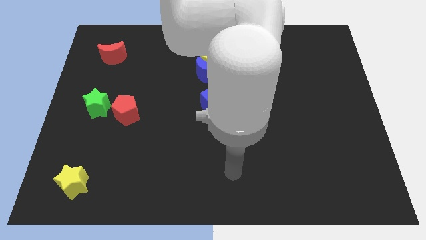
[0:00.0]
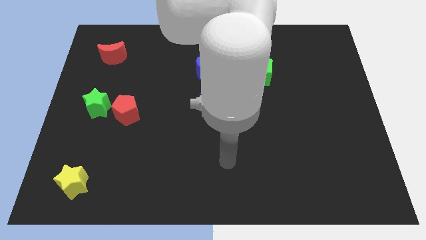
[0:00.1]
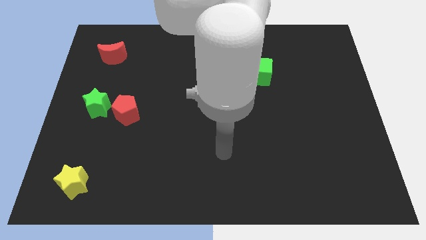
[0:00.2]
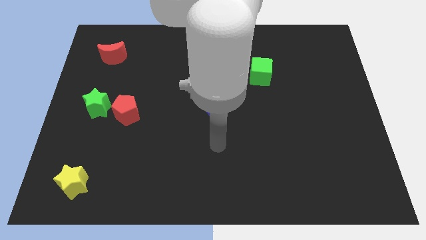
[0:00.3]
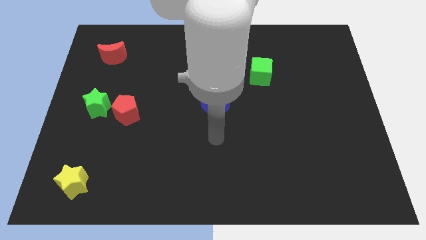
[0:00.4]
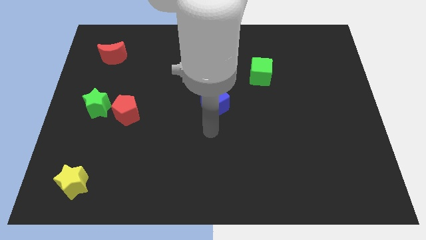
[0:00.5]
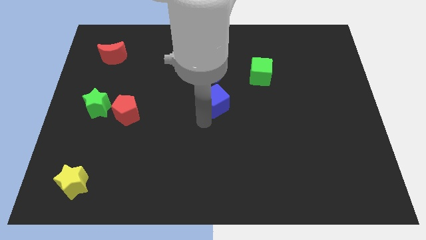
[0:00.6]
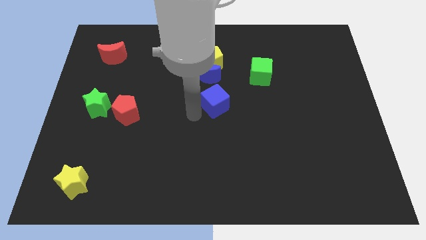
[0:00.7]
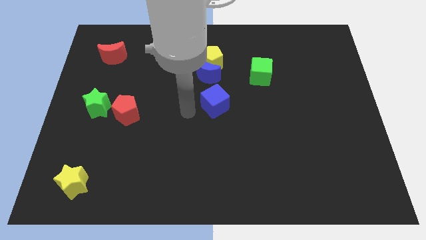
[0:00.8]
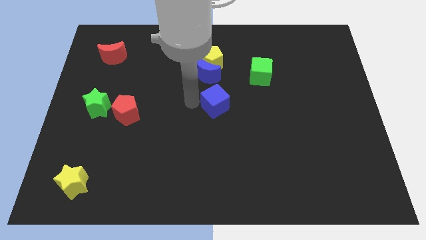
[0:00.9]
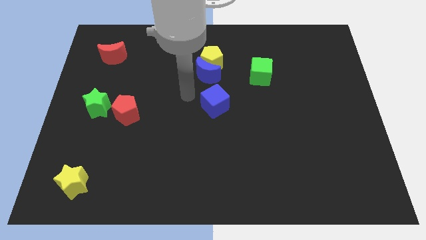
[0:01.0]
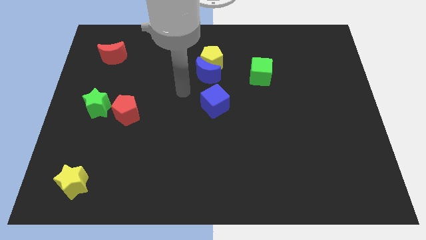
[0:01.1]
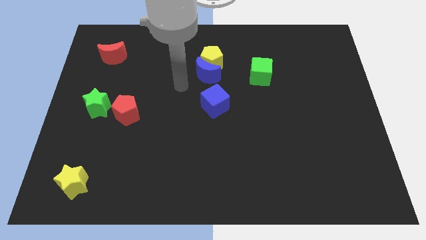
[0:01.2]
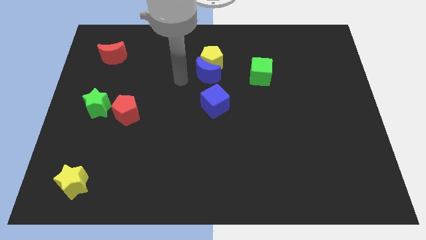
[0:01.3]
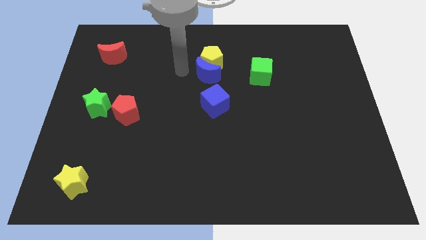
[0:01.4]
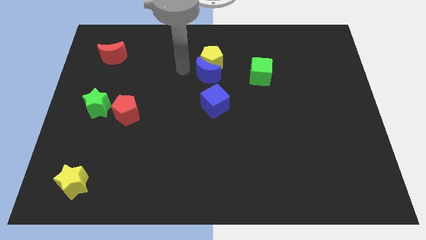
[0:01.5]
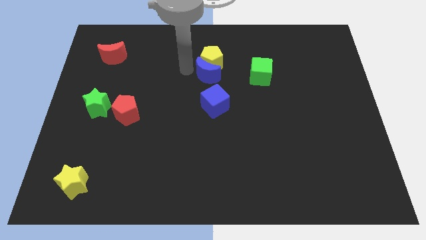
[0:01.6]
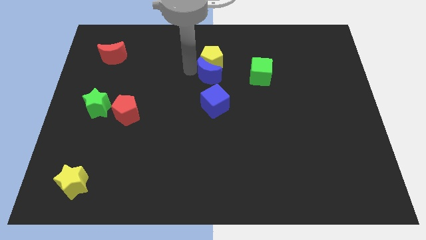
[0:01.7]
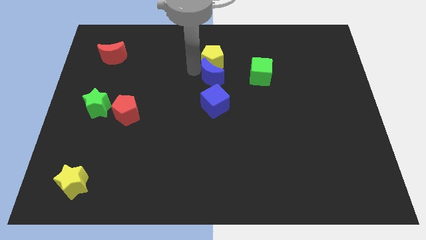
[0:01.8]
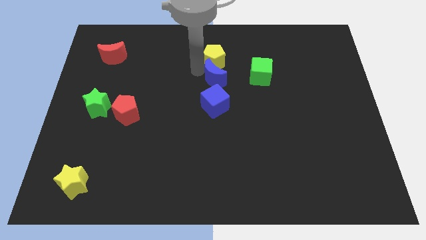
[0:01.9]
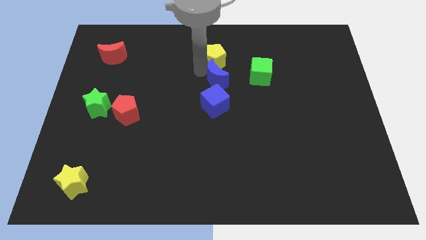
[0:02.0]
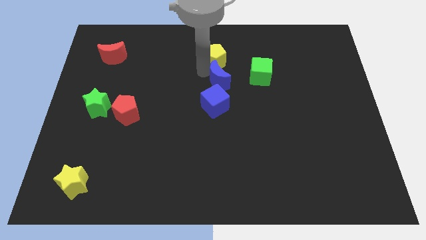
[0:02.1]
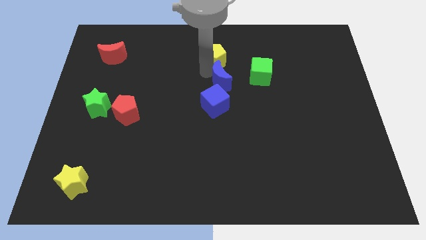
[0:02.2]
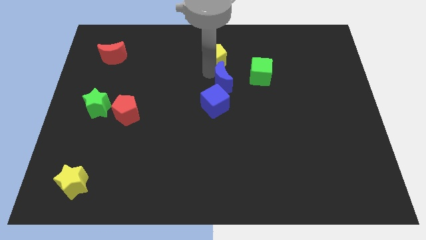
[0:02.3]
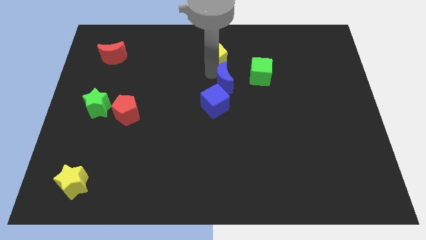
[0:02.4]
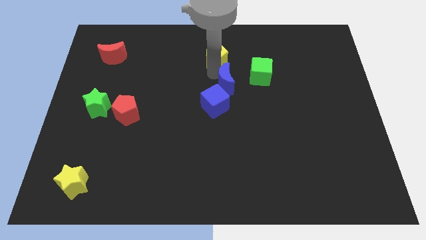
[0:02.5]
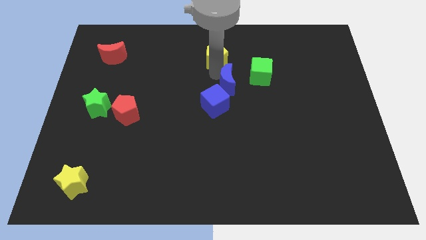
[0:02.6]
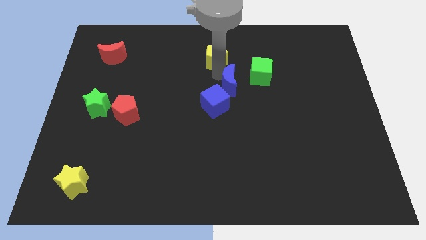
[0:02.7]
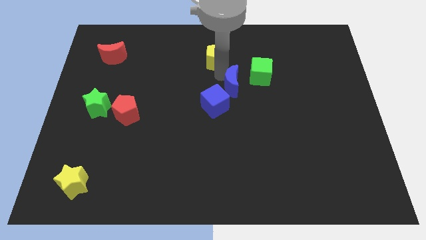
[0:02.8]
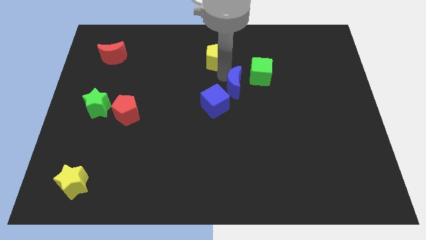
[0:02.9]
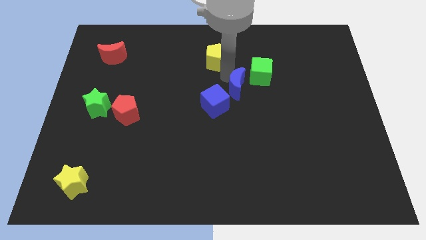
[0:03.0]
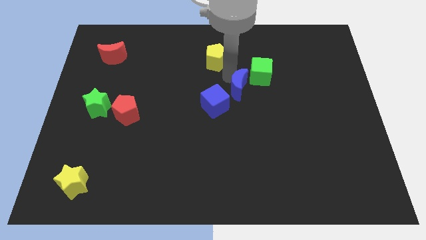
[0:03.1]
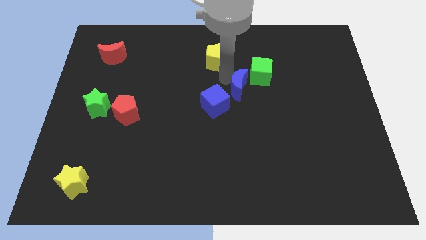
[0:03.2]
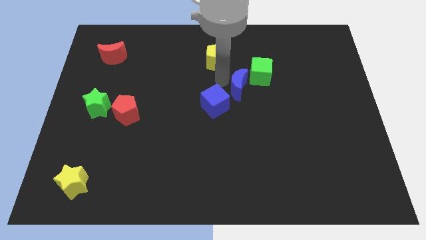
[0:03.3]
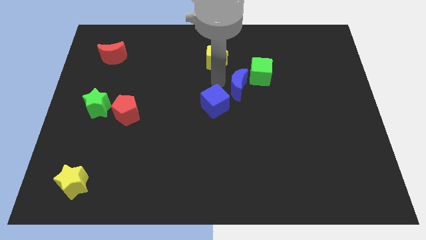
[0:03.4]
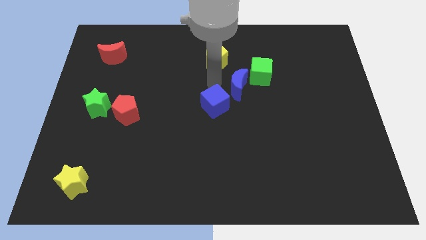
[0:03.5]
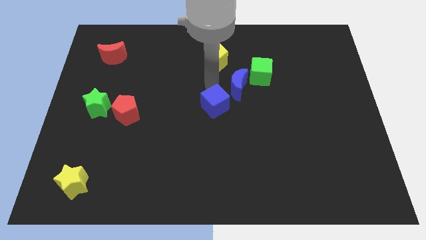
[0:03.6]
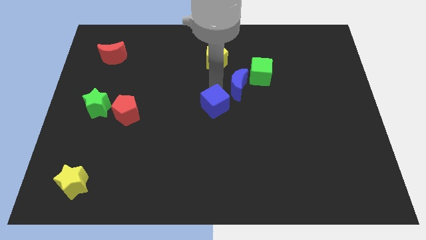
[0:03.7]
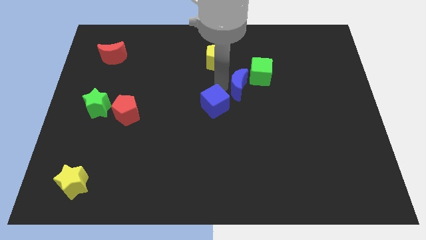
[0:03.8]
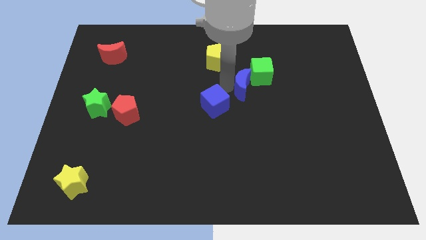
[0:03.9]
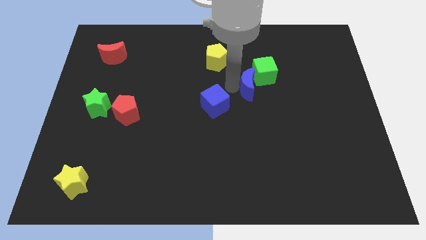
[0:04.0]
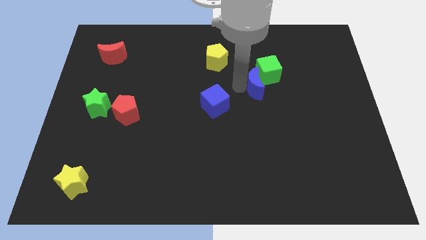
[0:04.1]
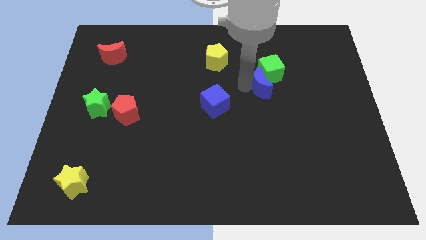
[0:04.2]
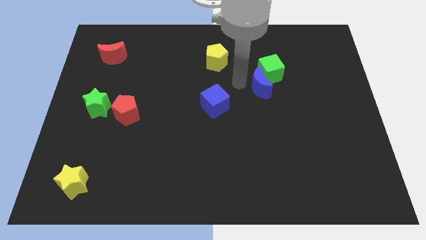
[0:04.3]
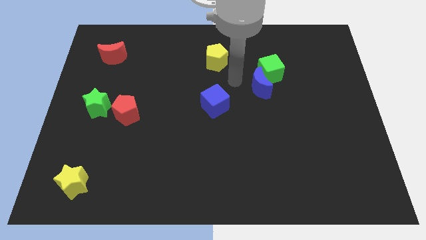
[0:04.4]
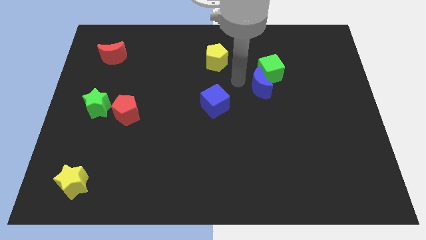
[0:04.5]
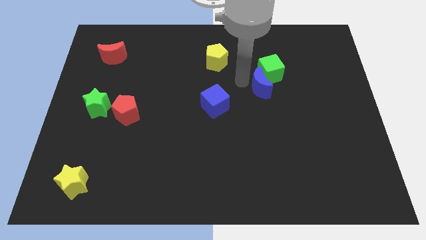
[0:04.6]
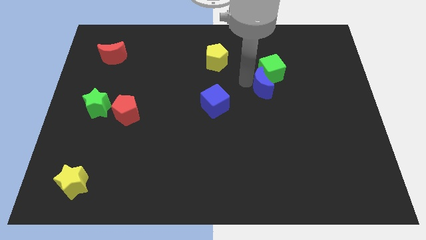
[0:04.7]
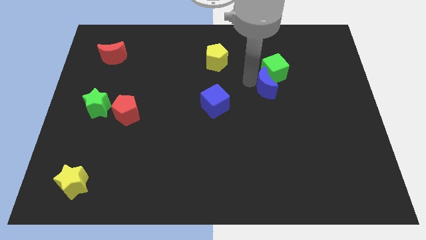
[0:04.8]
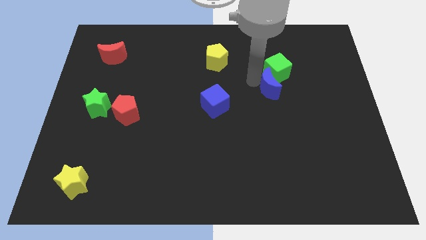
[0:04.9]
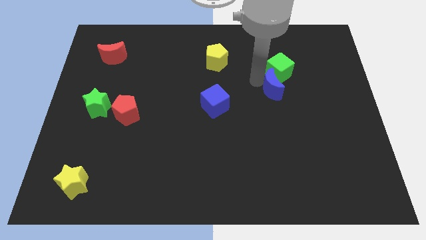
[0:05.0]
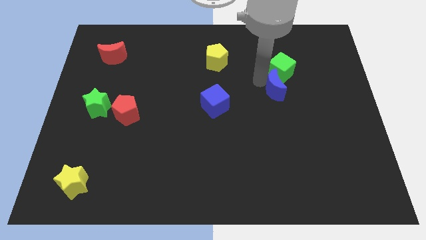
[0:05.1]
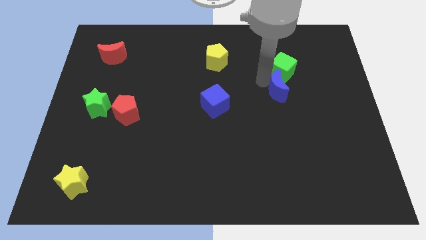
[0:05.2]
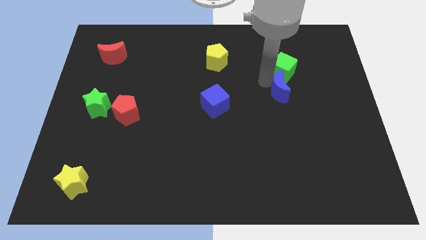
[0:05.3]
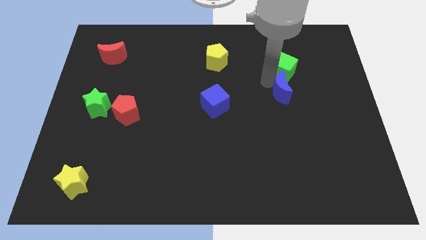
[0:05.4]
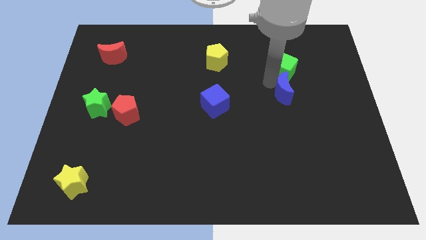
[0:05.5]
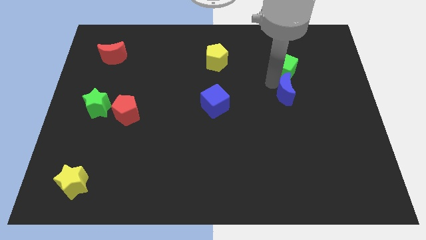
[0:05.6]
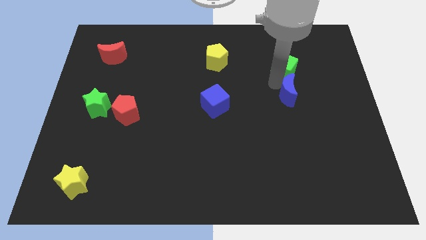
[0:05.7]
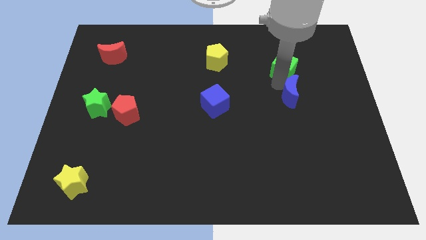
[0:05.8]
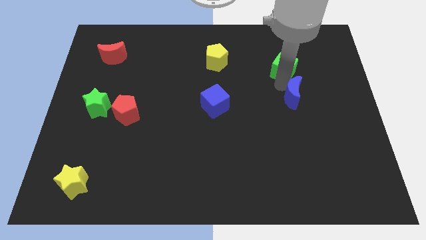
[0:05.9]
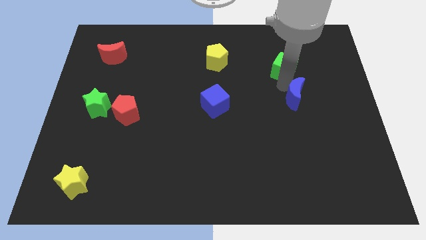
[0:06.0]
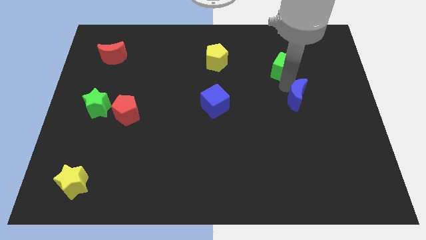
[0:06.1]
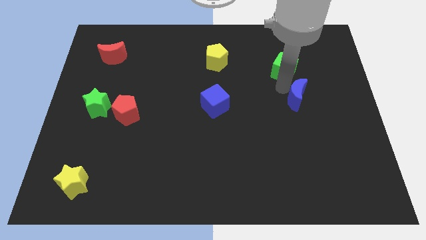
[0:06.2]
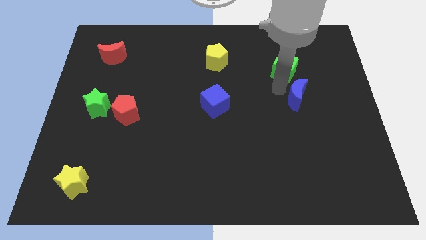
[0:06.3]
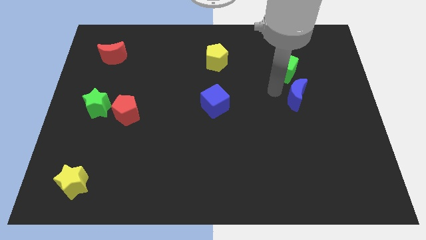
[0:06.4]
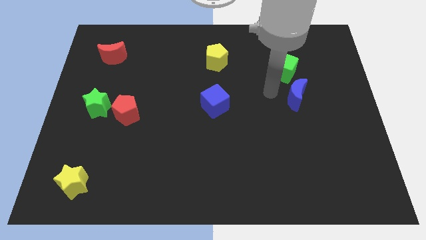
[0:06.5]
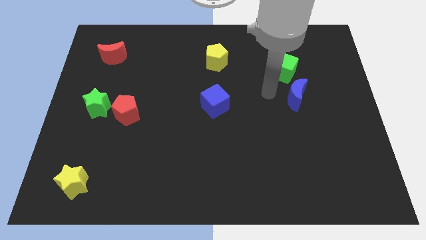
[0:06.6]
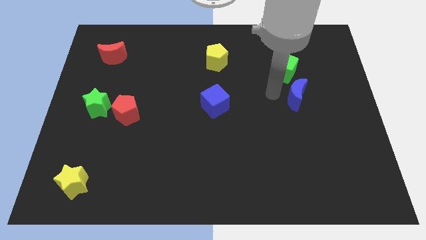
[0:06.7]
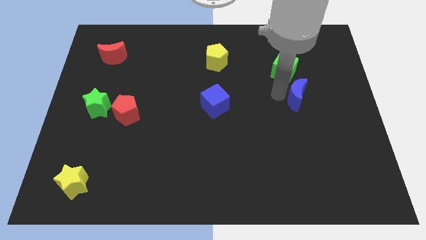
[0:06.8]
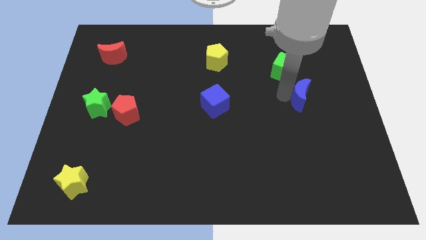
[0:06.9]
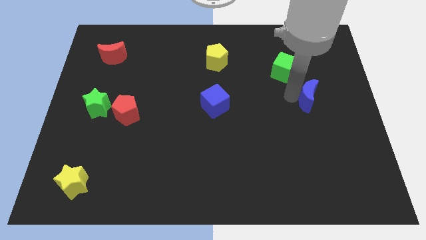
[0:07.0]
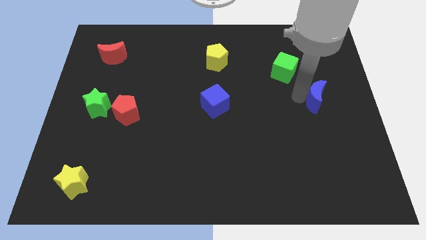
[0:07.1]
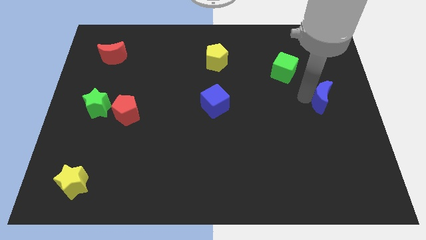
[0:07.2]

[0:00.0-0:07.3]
slide the blue moon to the right side

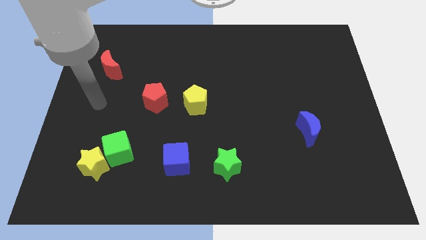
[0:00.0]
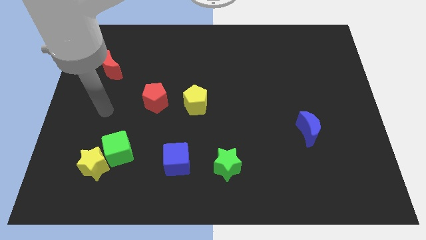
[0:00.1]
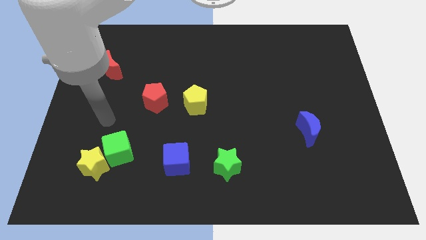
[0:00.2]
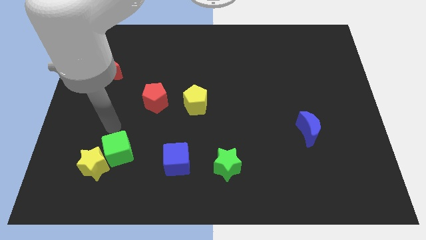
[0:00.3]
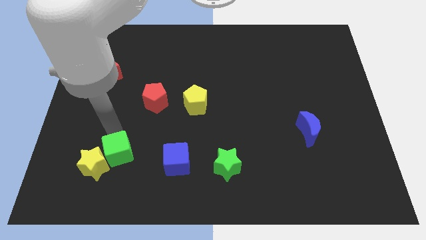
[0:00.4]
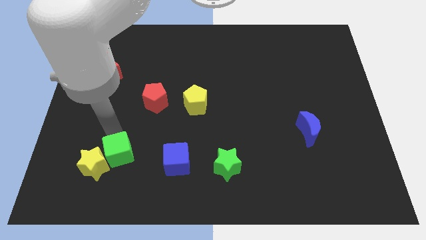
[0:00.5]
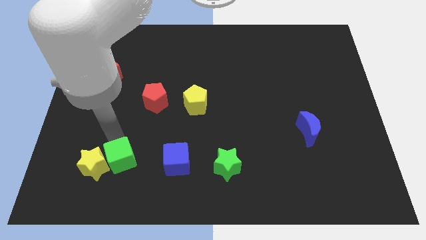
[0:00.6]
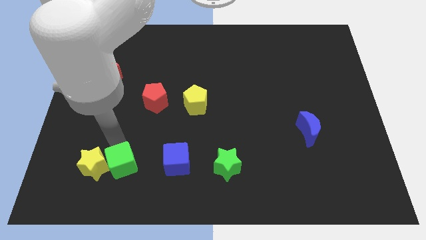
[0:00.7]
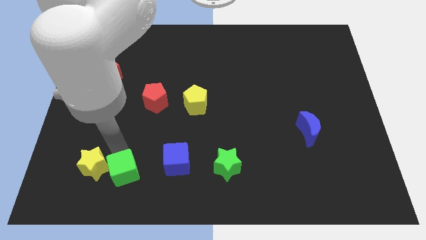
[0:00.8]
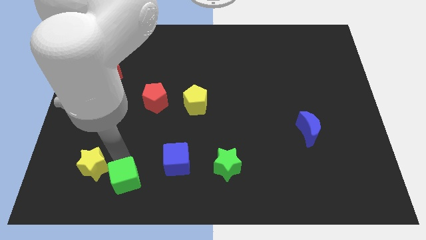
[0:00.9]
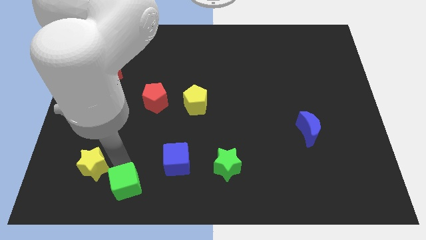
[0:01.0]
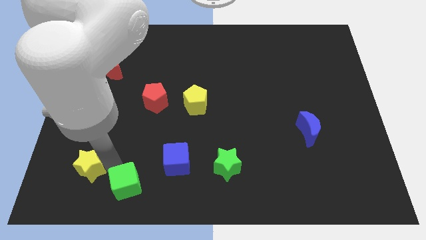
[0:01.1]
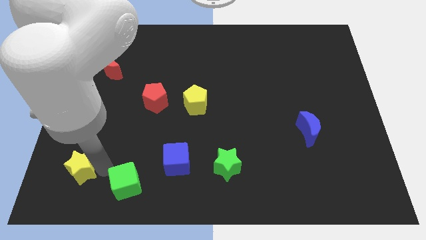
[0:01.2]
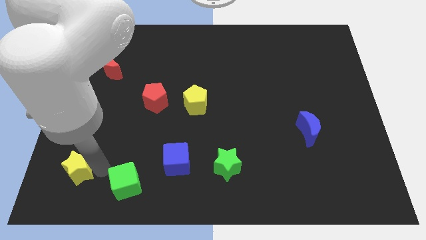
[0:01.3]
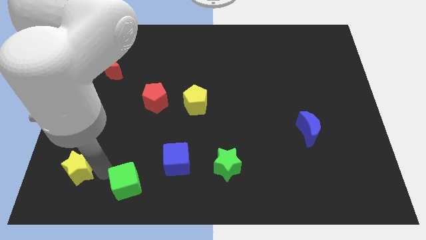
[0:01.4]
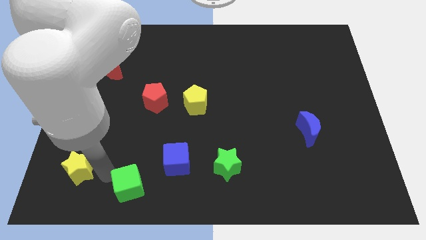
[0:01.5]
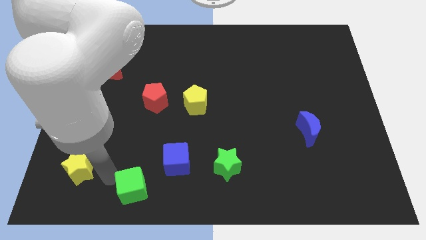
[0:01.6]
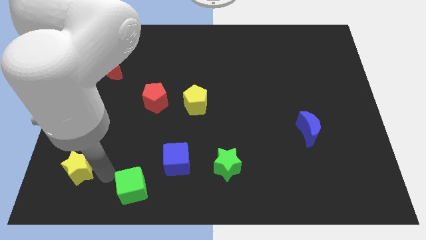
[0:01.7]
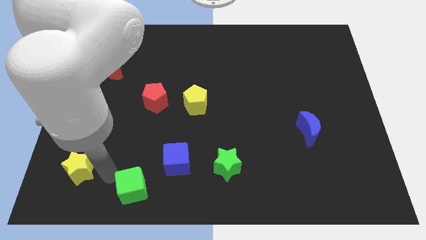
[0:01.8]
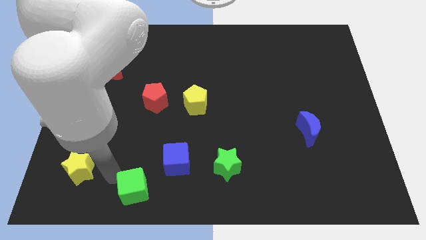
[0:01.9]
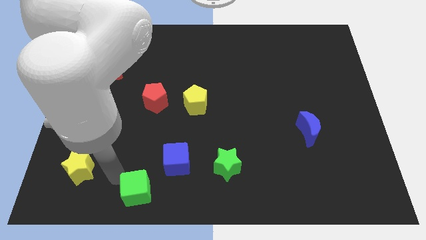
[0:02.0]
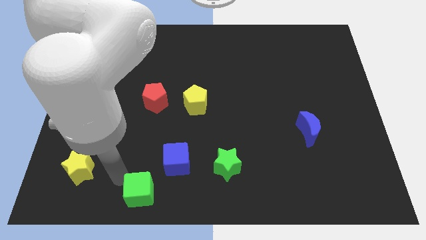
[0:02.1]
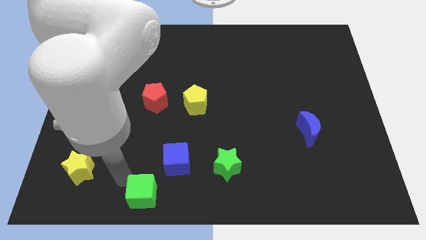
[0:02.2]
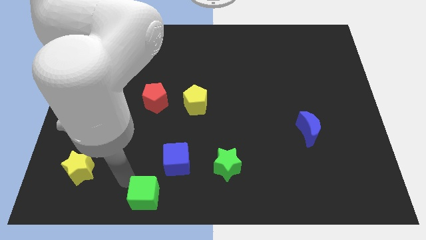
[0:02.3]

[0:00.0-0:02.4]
slide the green cube to the bottom side
